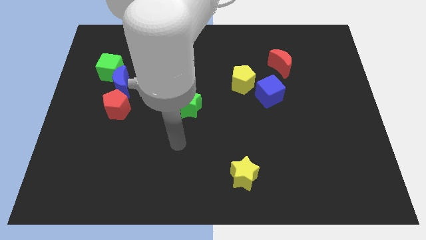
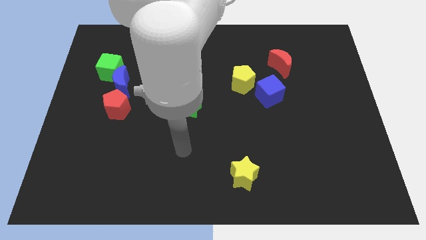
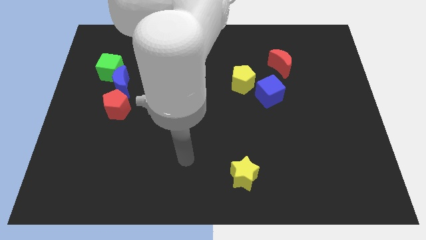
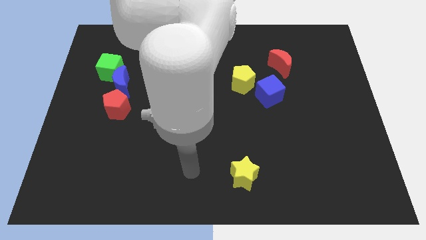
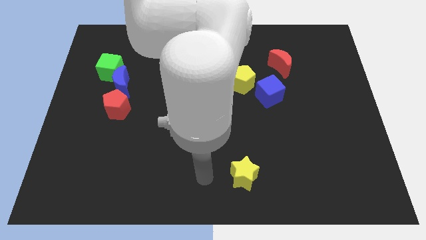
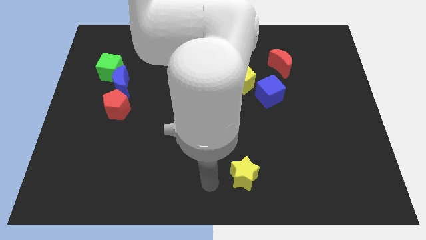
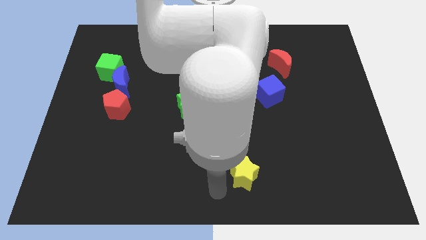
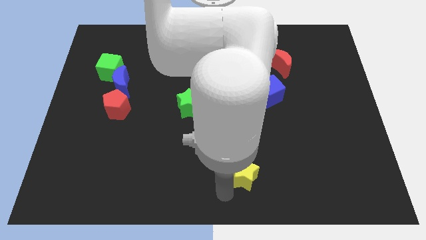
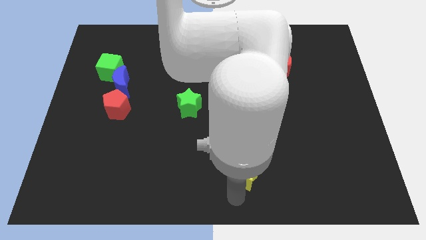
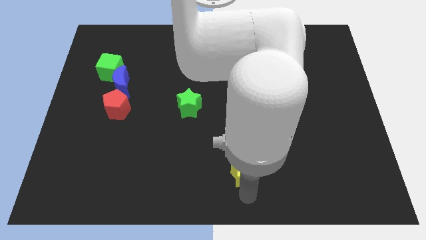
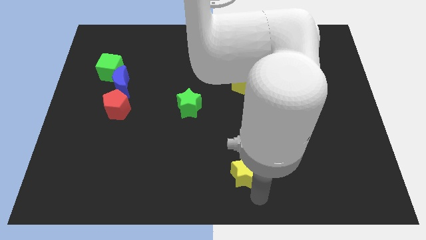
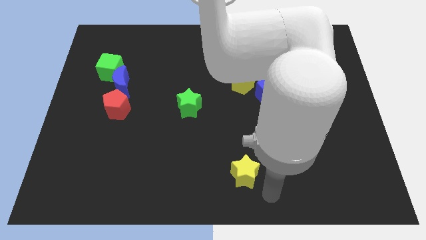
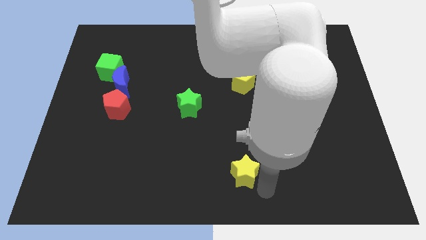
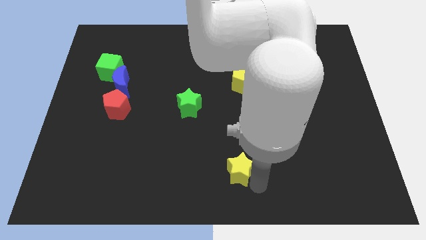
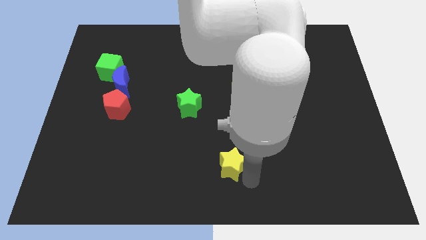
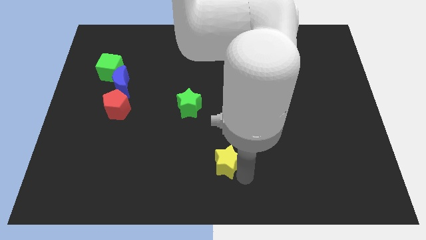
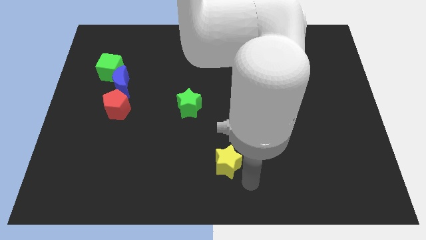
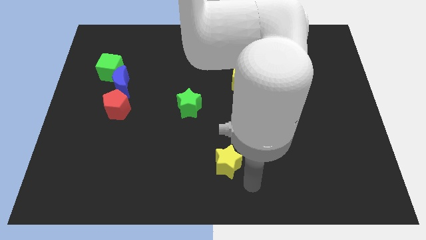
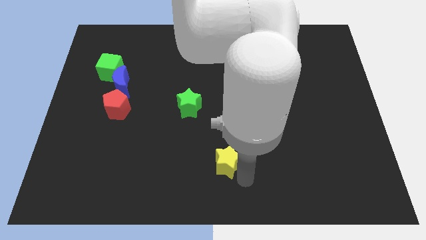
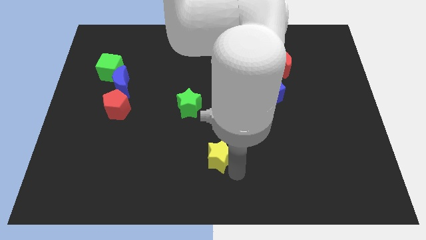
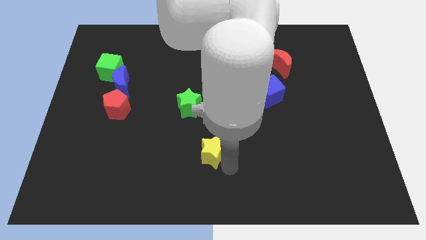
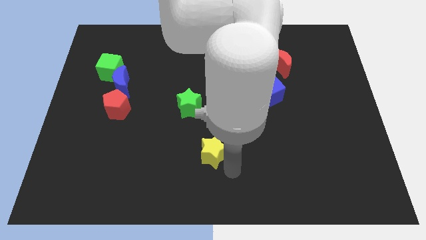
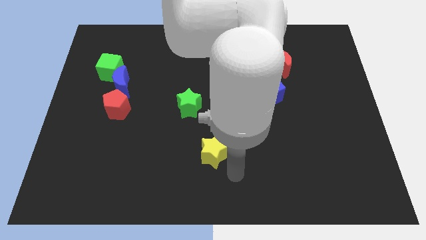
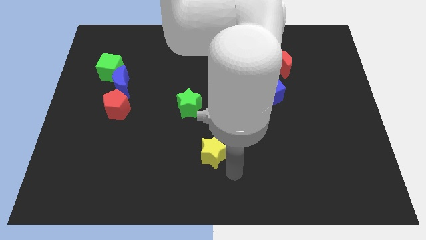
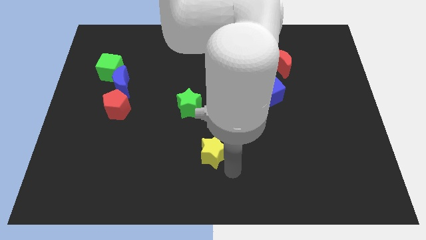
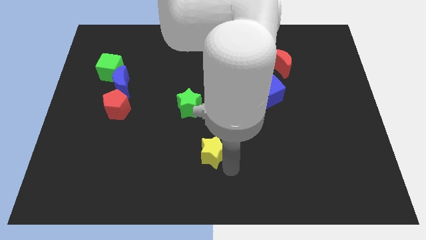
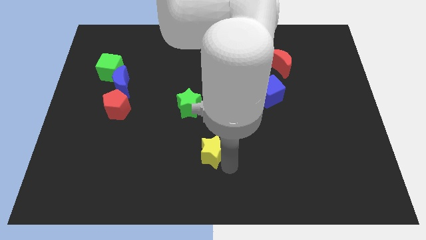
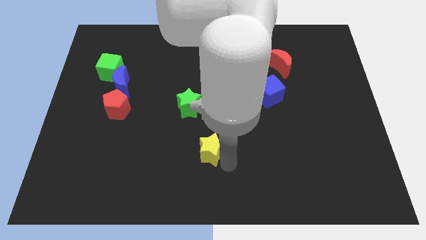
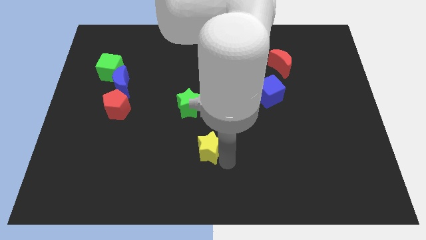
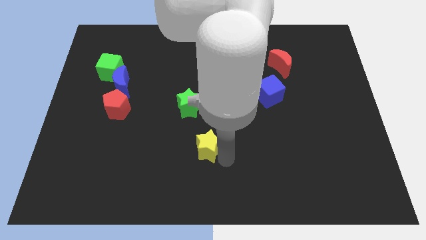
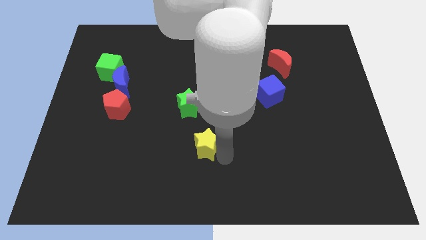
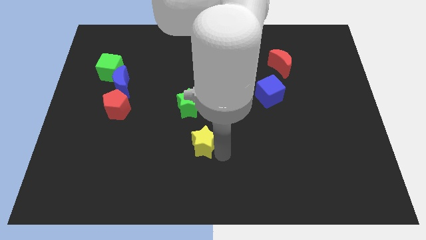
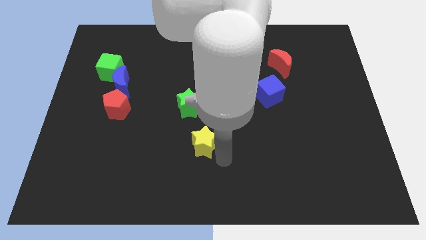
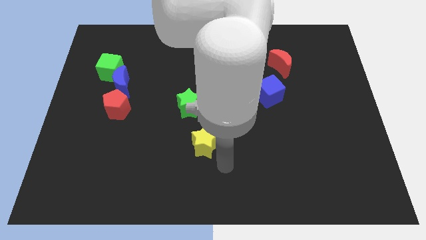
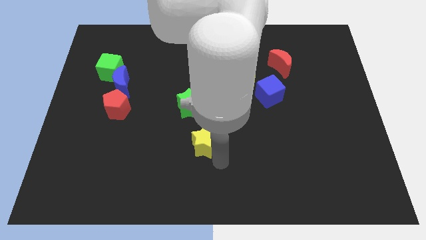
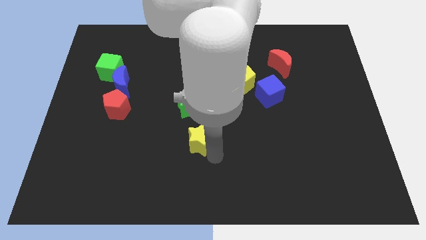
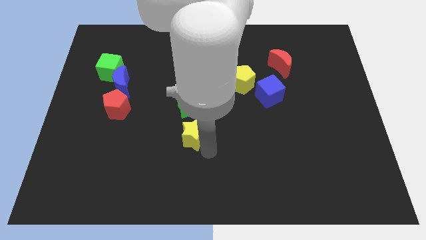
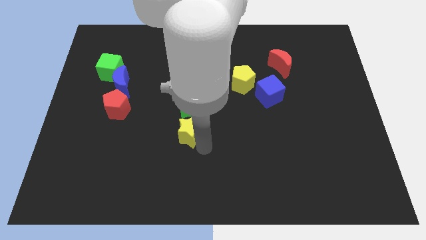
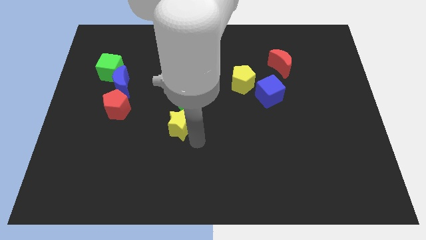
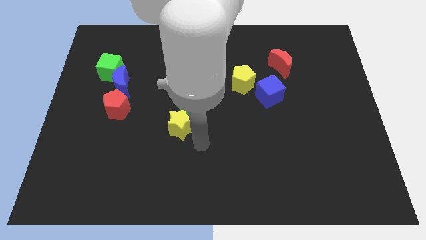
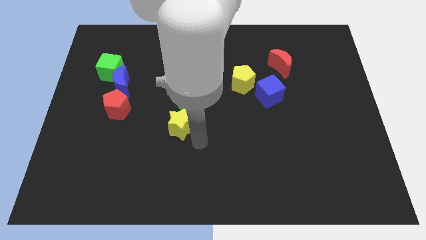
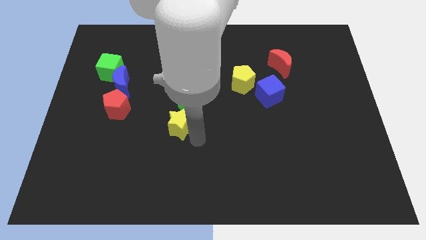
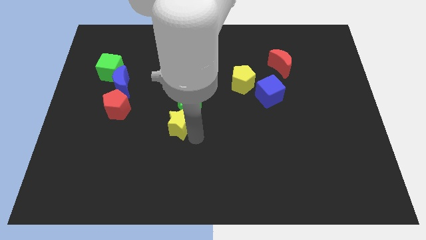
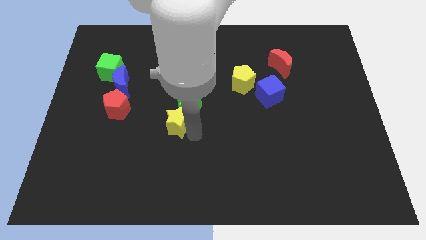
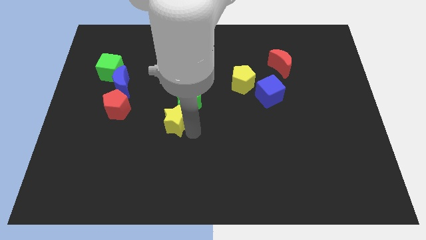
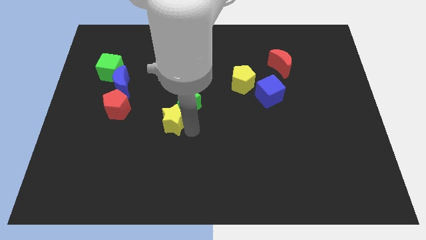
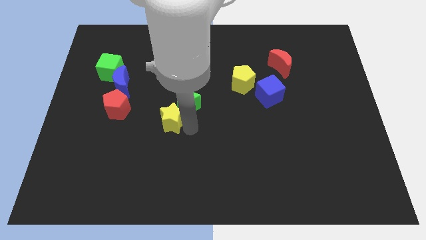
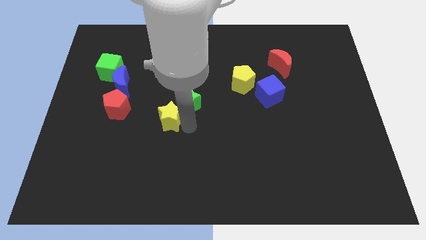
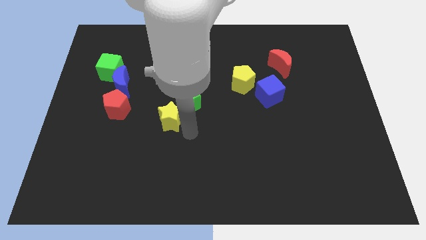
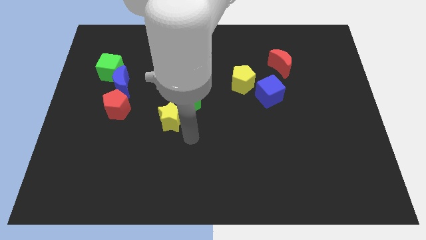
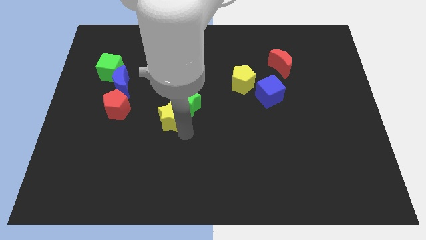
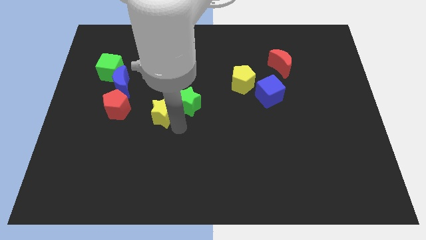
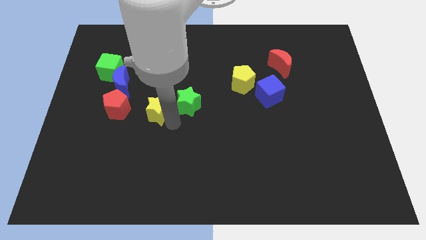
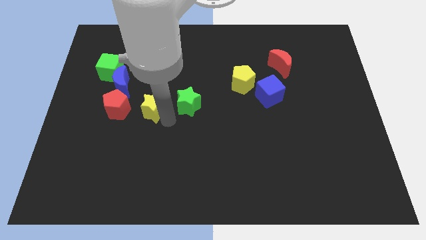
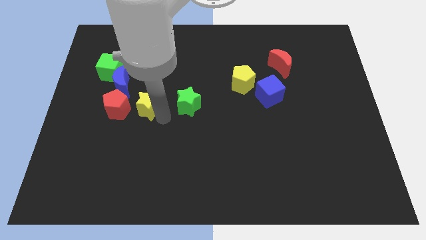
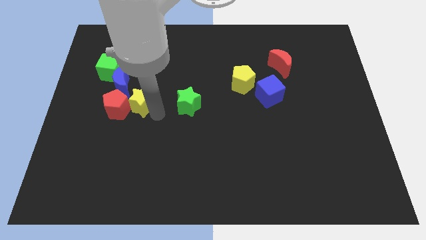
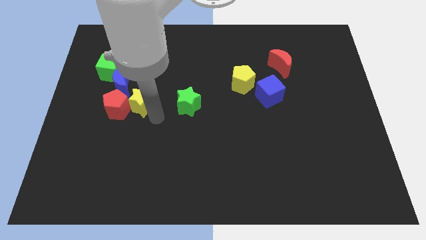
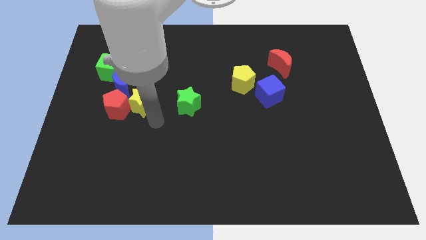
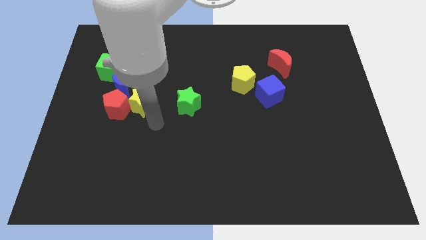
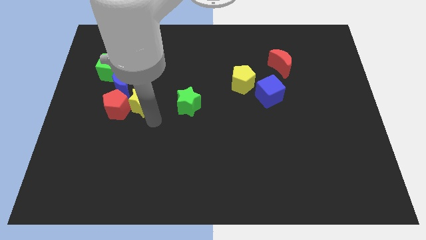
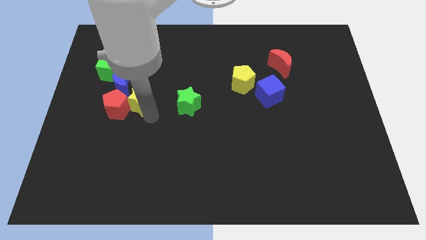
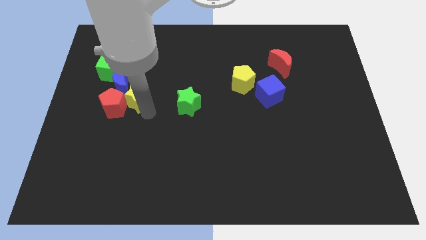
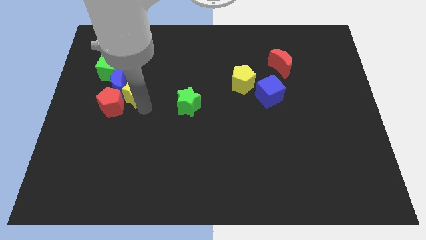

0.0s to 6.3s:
push the yellow star towards the blue moon

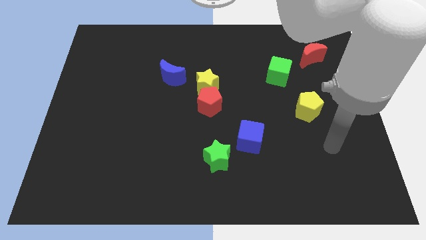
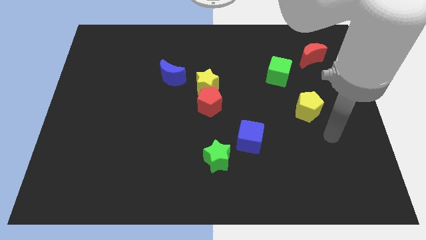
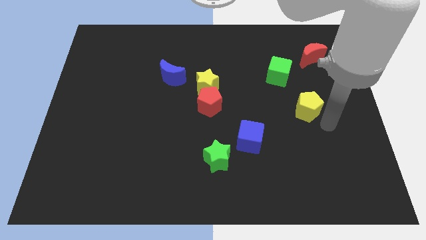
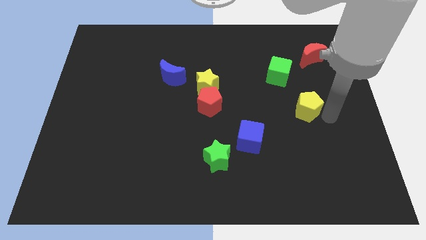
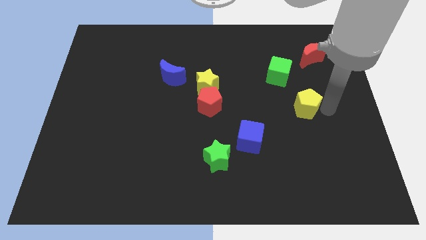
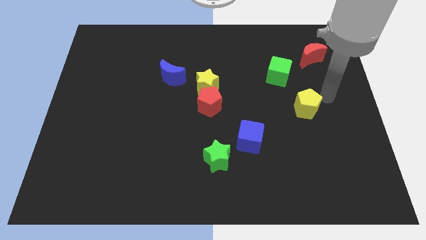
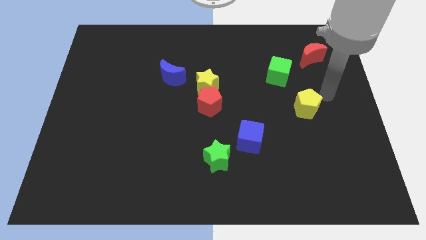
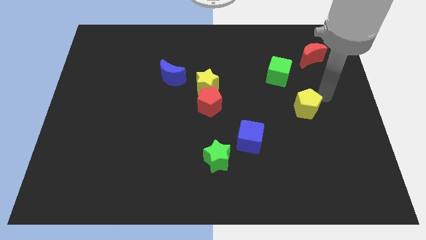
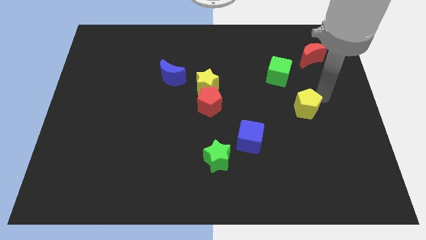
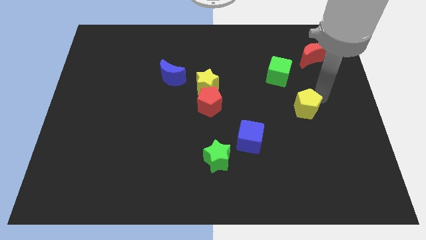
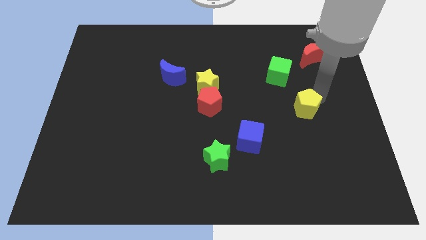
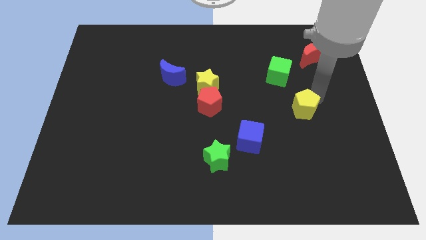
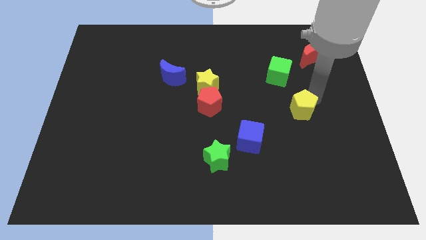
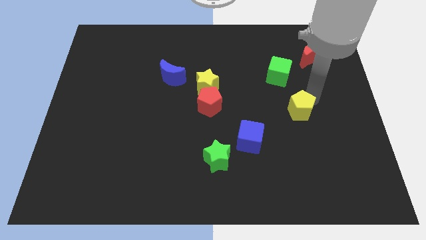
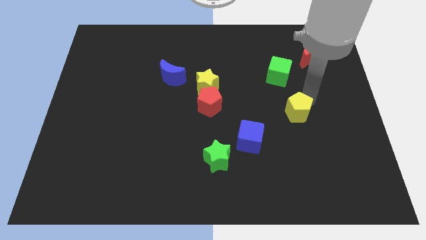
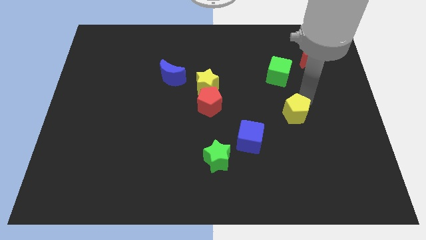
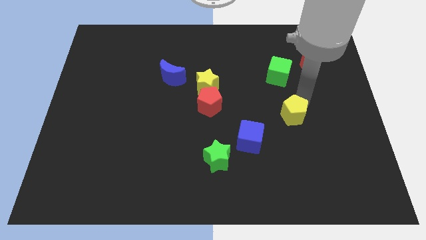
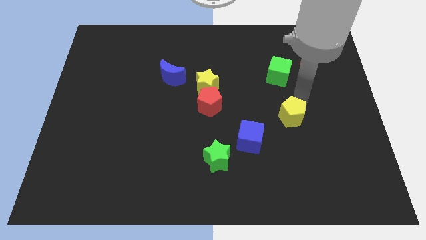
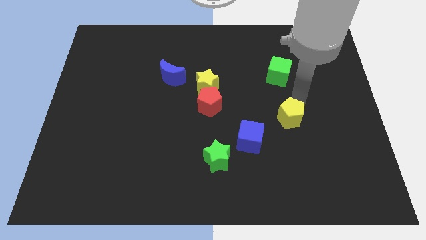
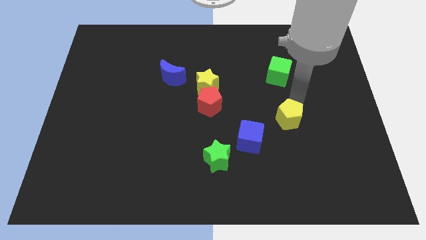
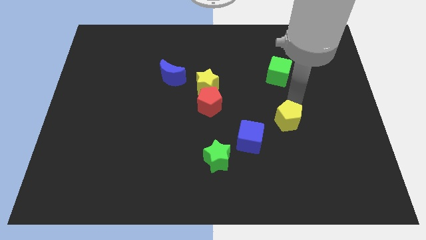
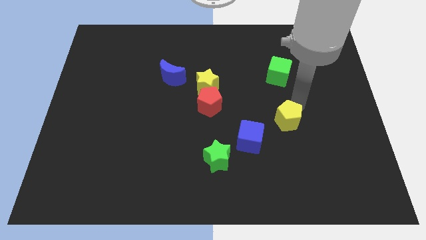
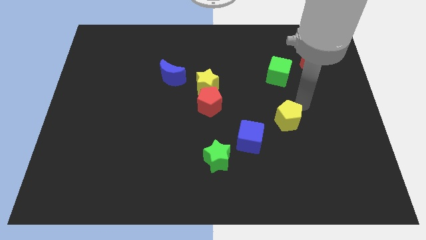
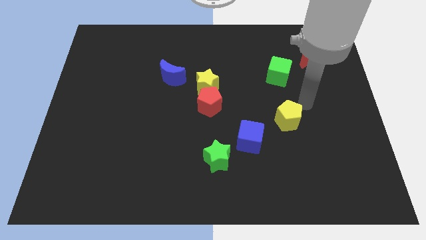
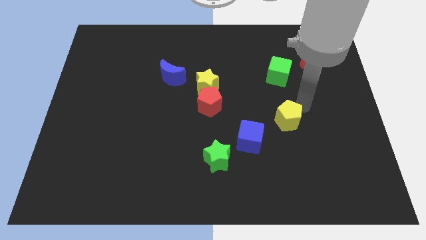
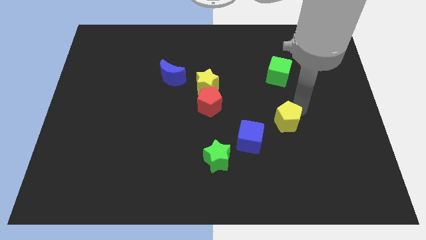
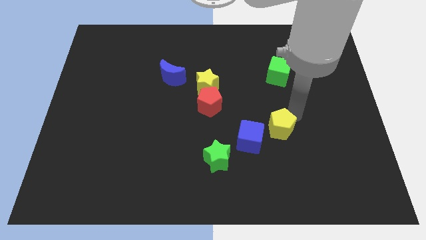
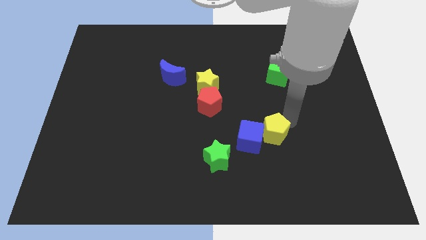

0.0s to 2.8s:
move the yellow pentagon next to the blue cube
